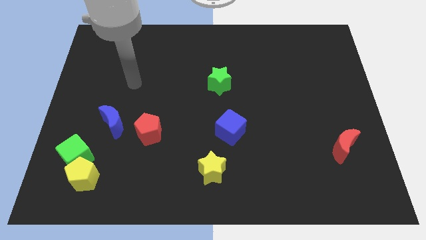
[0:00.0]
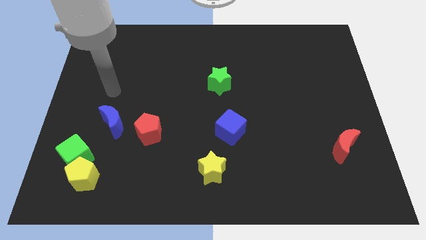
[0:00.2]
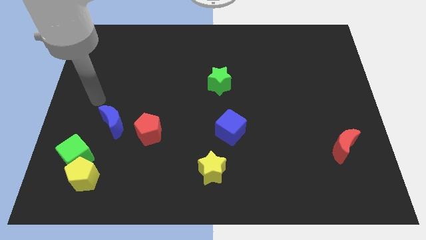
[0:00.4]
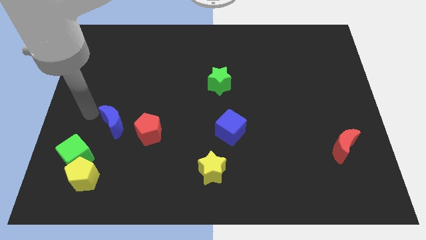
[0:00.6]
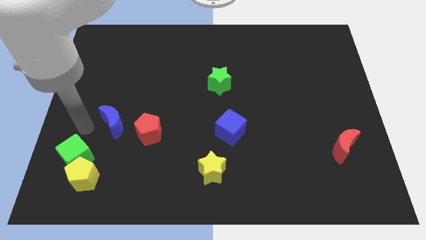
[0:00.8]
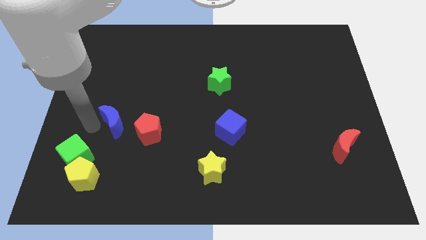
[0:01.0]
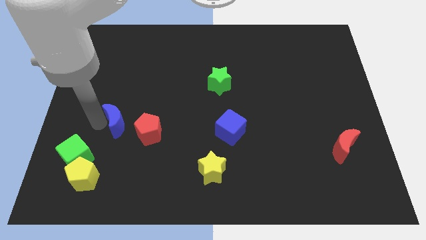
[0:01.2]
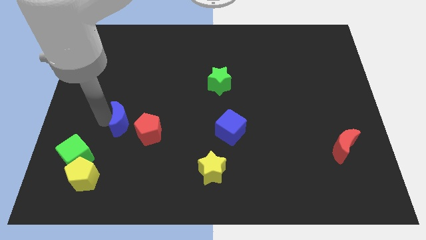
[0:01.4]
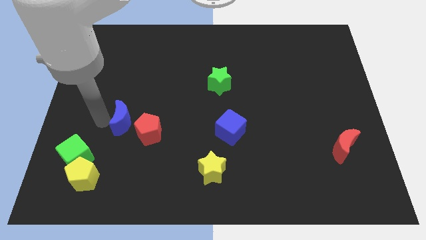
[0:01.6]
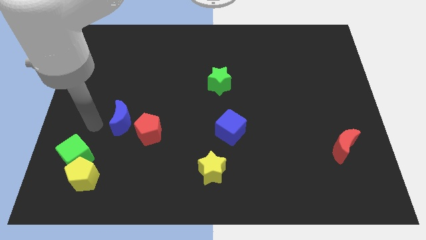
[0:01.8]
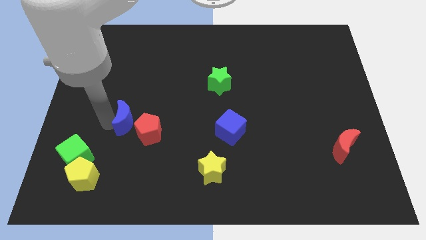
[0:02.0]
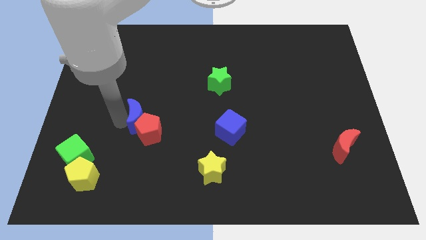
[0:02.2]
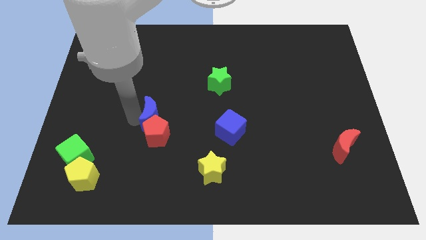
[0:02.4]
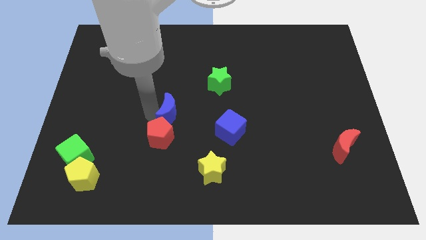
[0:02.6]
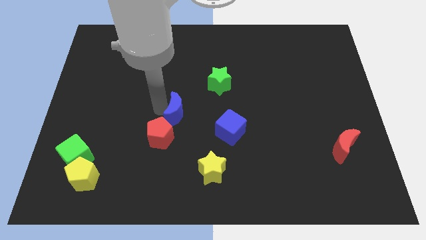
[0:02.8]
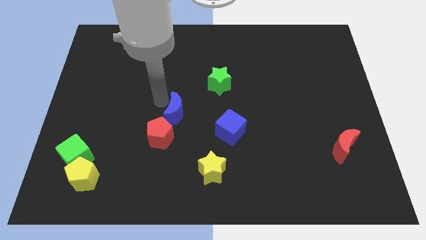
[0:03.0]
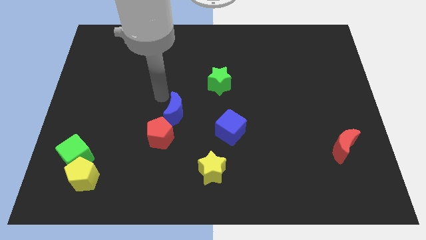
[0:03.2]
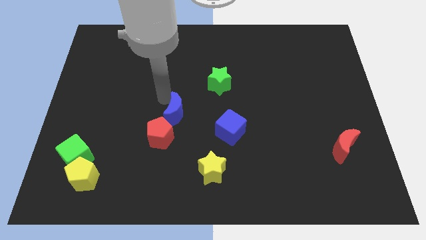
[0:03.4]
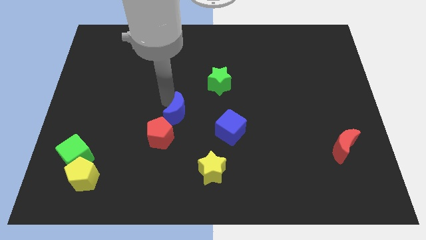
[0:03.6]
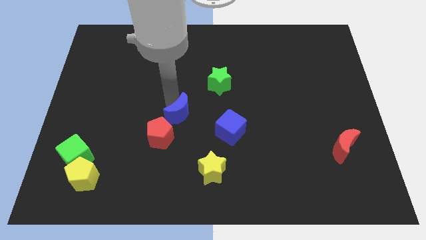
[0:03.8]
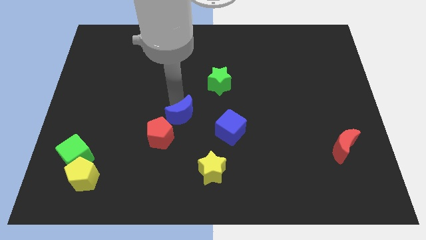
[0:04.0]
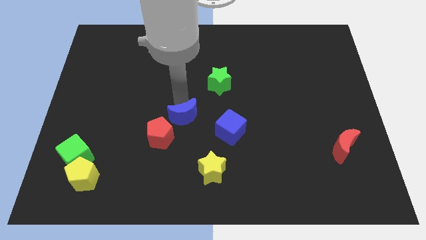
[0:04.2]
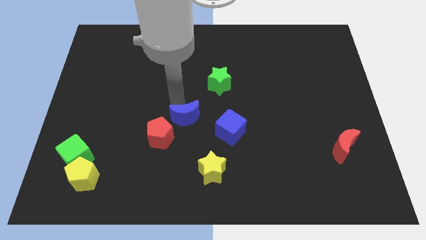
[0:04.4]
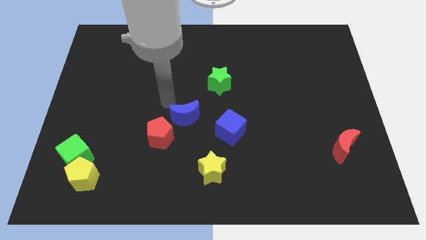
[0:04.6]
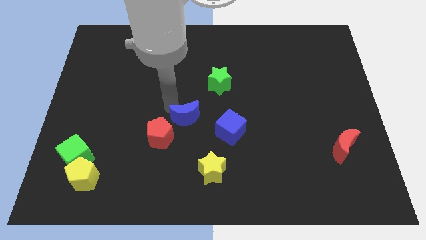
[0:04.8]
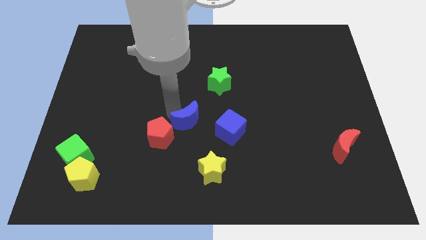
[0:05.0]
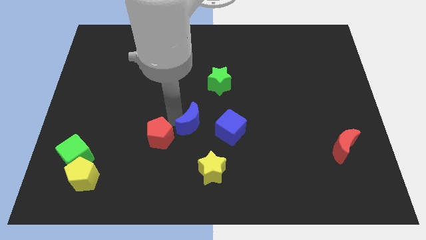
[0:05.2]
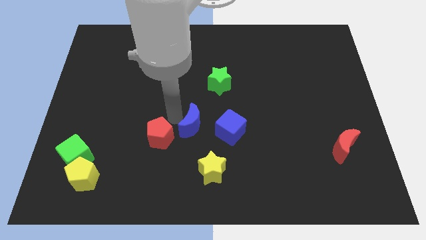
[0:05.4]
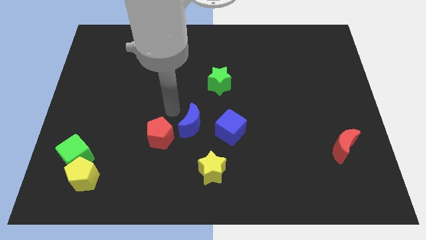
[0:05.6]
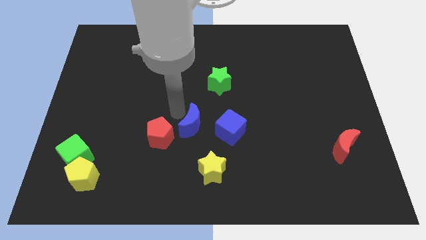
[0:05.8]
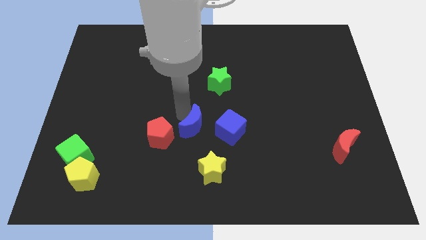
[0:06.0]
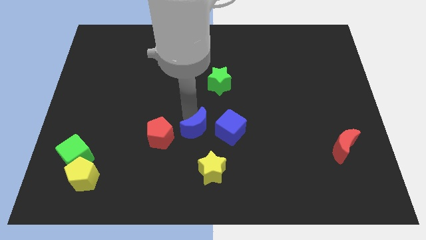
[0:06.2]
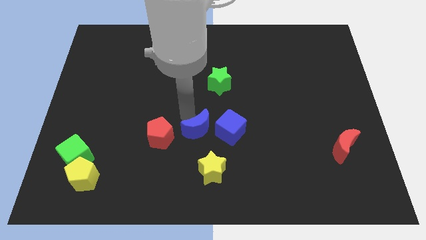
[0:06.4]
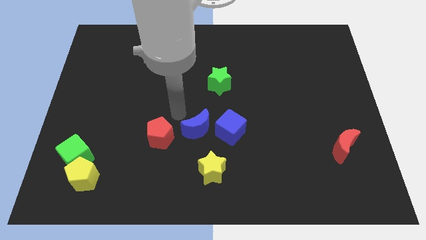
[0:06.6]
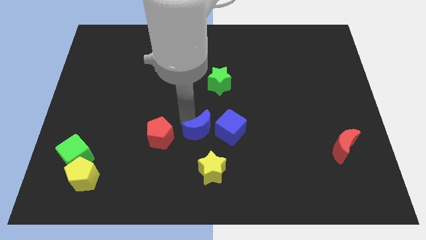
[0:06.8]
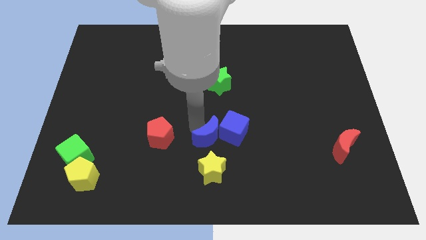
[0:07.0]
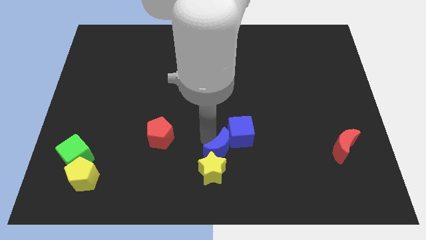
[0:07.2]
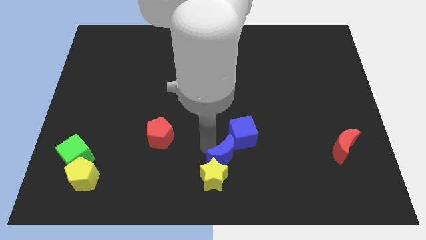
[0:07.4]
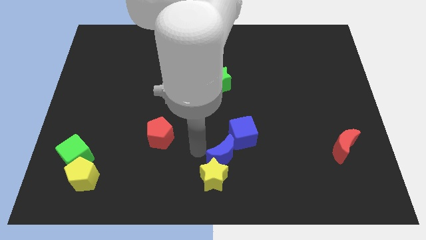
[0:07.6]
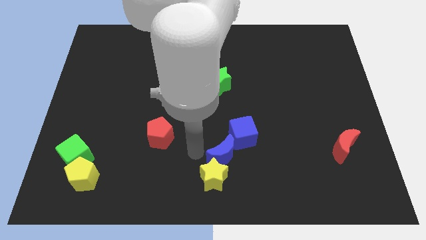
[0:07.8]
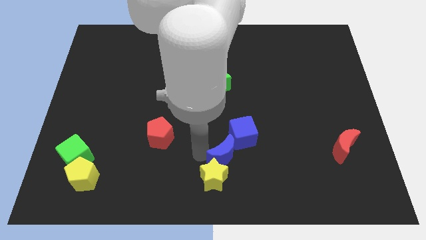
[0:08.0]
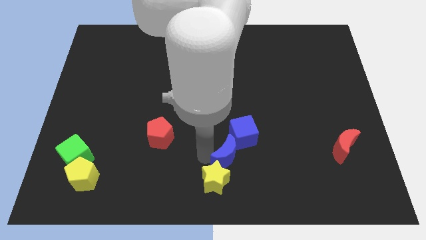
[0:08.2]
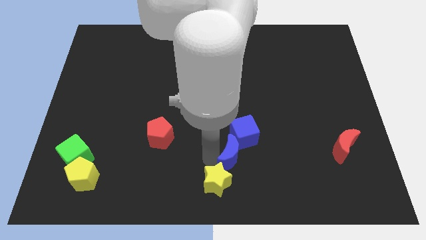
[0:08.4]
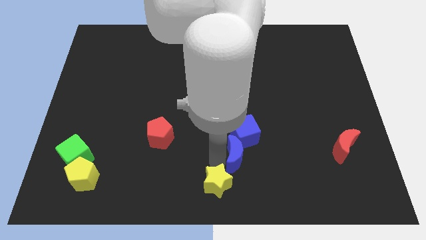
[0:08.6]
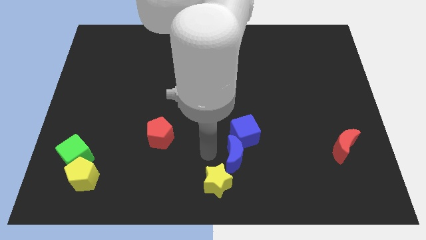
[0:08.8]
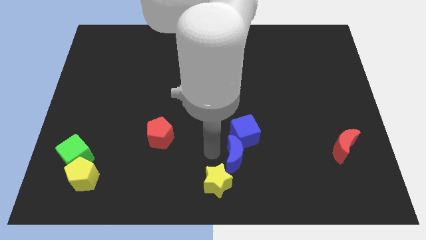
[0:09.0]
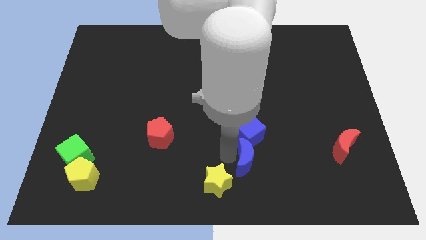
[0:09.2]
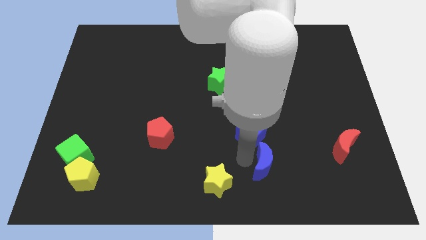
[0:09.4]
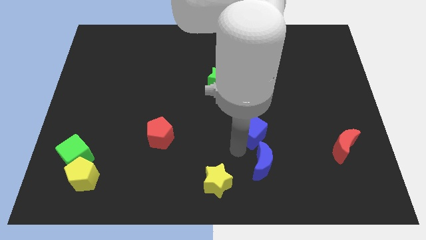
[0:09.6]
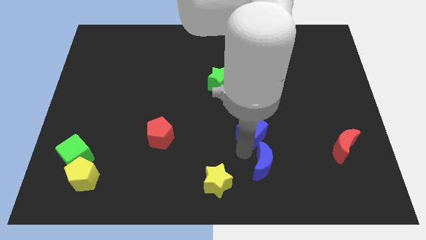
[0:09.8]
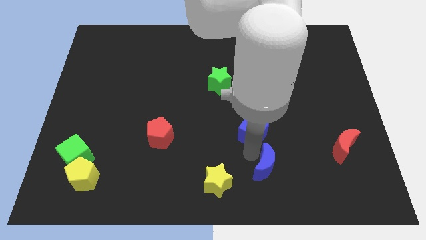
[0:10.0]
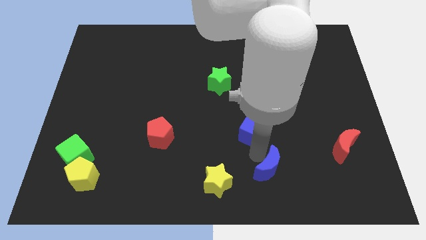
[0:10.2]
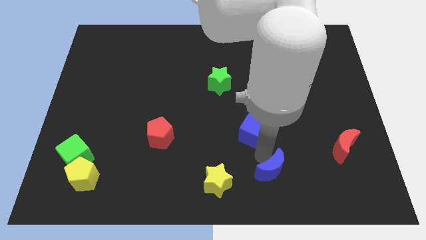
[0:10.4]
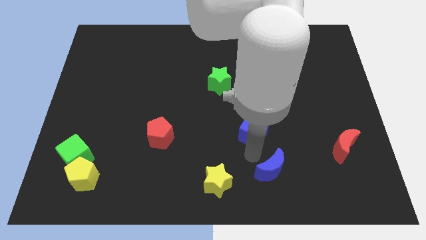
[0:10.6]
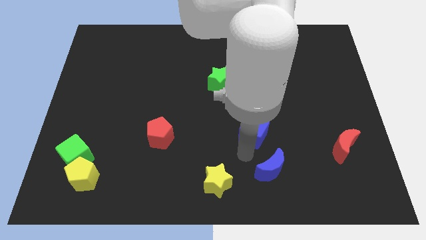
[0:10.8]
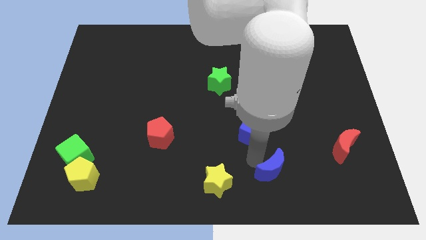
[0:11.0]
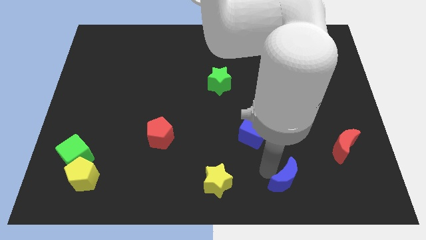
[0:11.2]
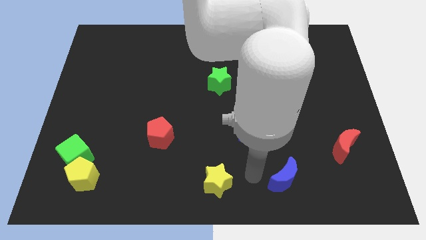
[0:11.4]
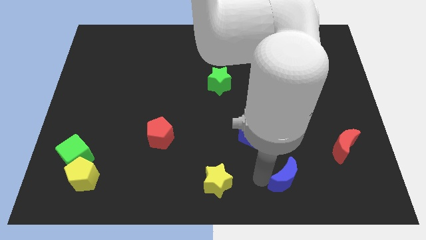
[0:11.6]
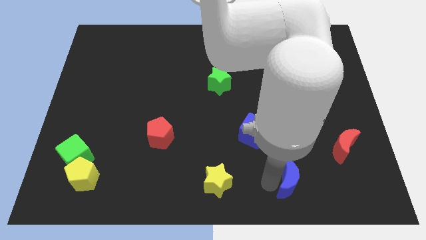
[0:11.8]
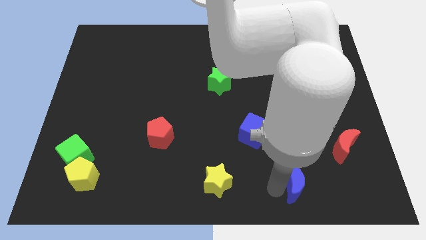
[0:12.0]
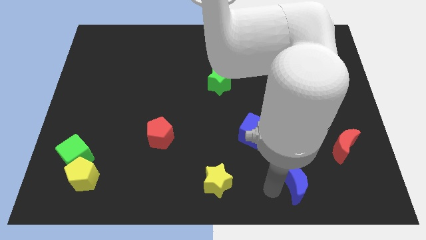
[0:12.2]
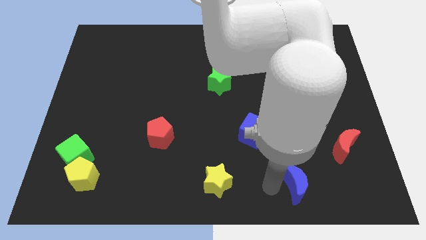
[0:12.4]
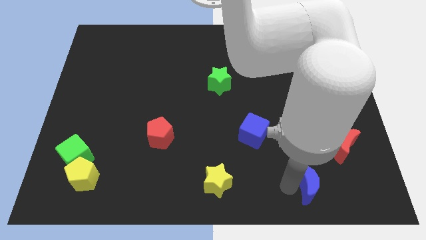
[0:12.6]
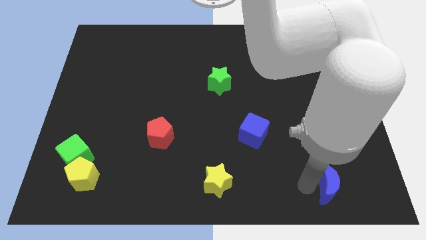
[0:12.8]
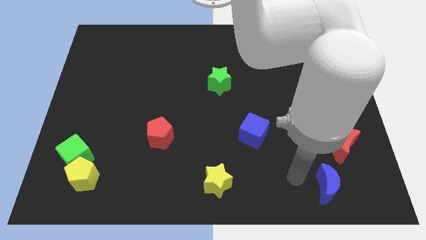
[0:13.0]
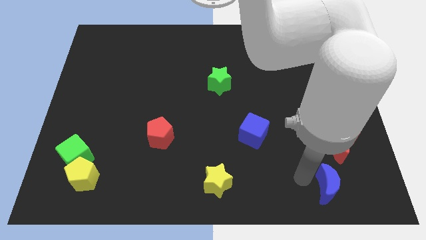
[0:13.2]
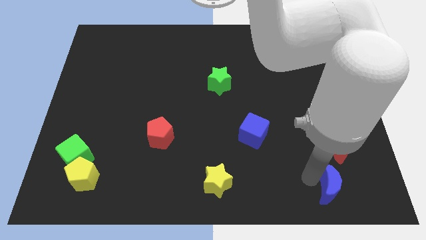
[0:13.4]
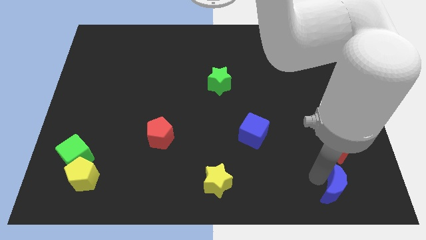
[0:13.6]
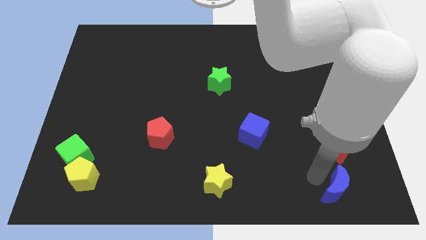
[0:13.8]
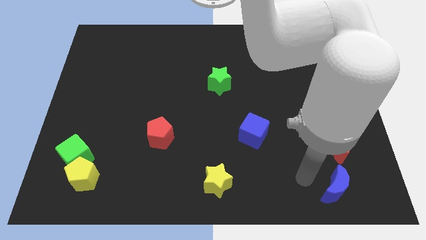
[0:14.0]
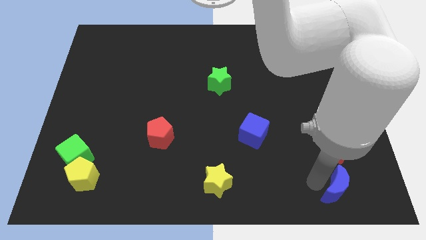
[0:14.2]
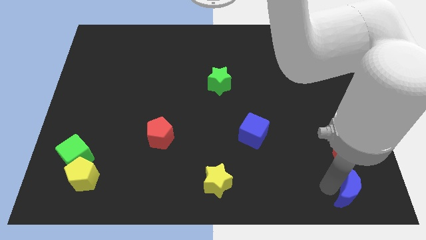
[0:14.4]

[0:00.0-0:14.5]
slide the blue moon to the lower right corner
